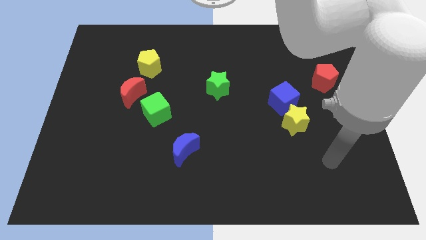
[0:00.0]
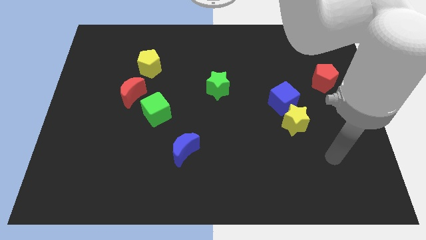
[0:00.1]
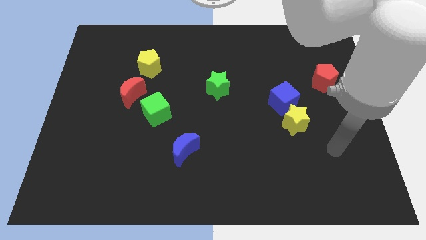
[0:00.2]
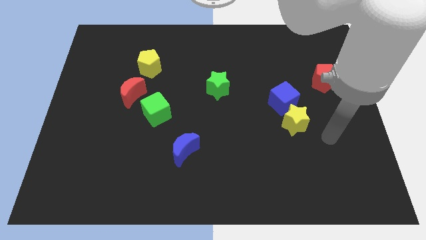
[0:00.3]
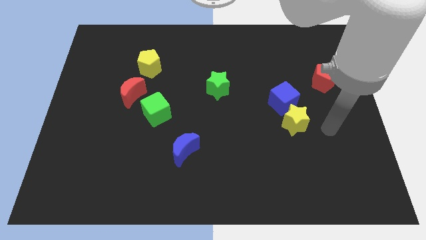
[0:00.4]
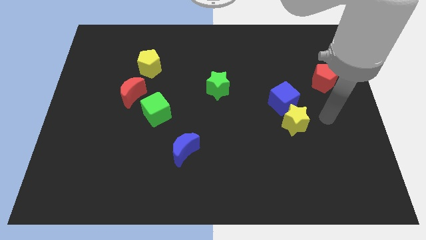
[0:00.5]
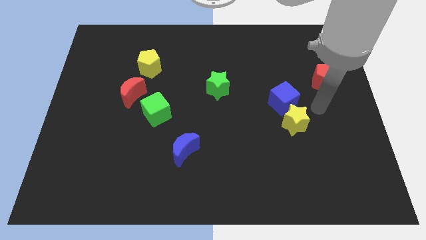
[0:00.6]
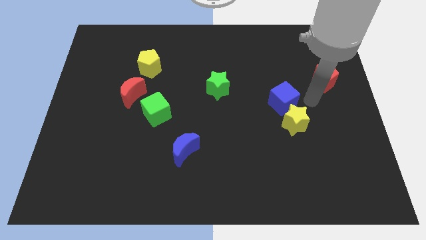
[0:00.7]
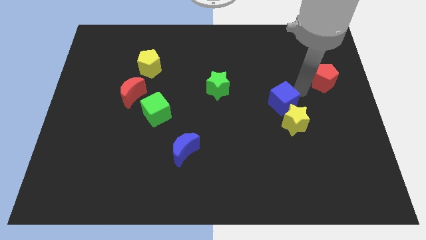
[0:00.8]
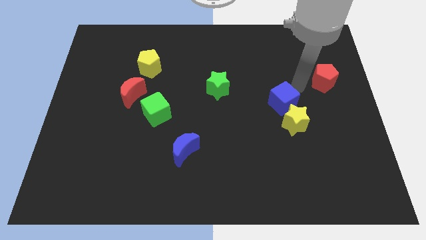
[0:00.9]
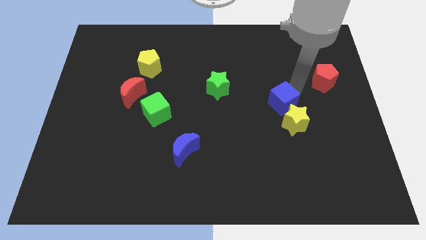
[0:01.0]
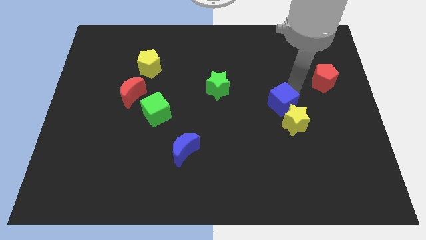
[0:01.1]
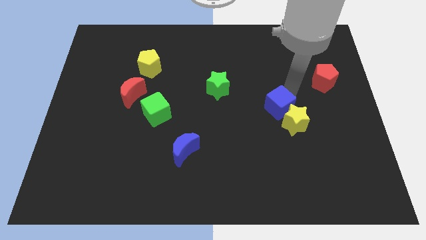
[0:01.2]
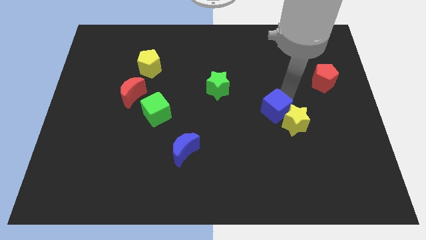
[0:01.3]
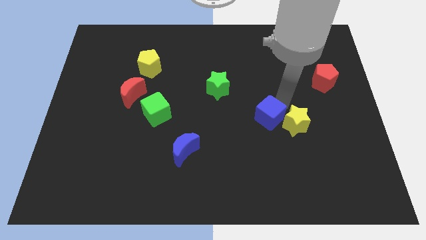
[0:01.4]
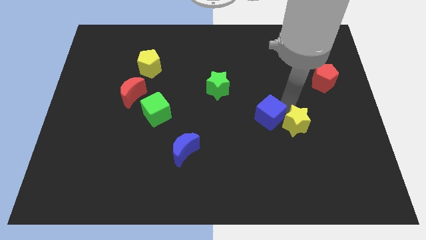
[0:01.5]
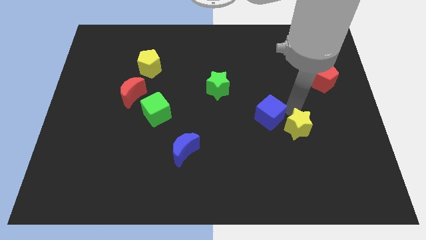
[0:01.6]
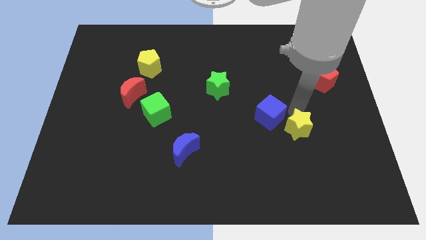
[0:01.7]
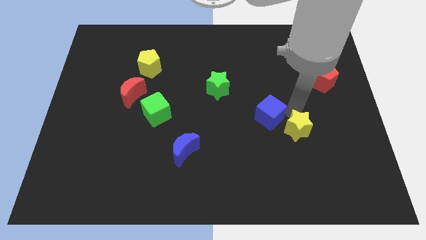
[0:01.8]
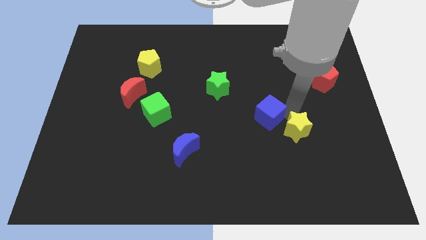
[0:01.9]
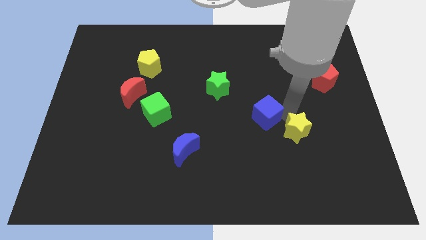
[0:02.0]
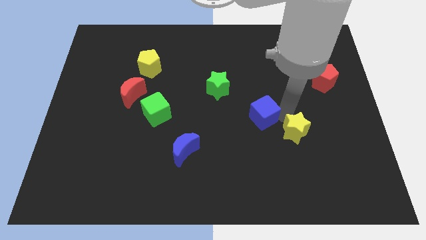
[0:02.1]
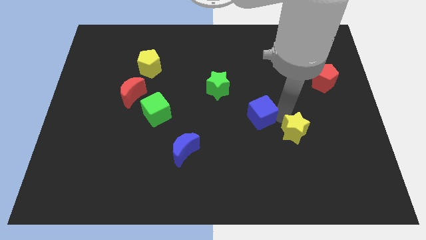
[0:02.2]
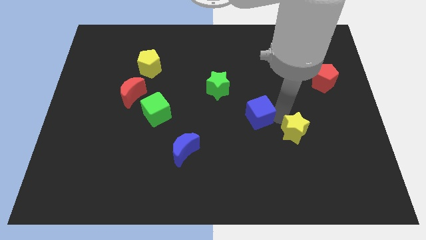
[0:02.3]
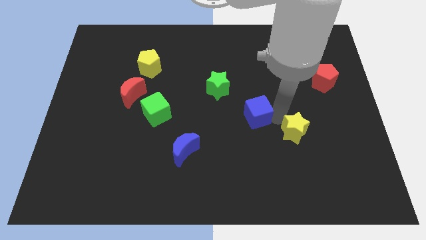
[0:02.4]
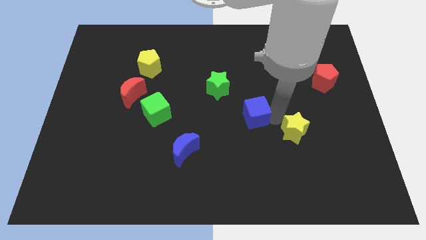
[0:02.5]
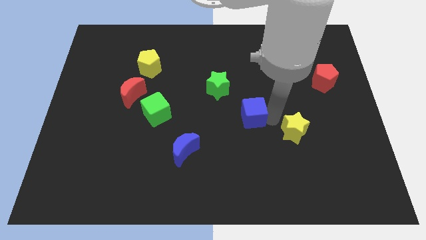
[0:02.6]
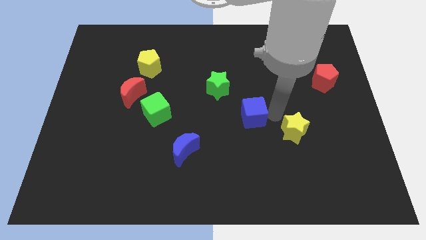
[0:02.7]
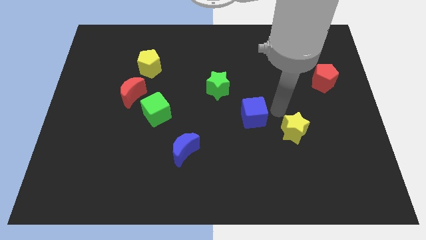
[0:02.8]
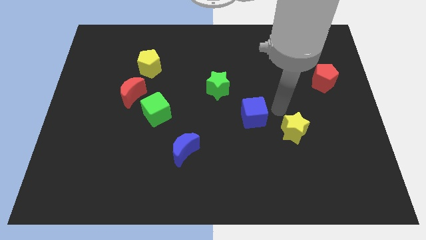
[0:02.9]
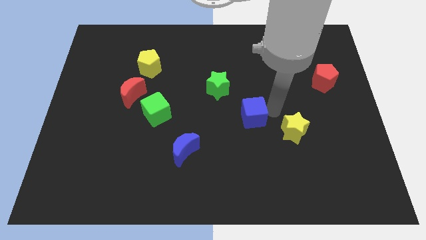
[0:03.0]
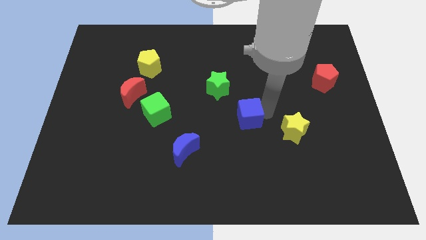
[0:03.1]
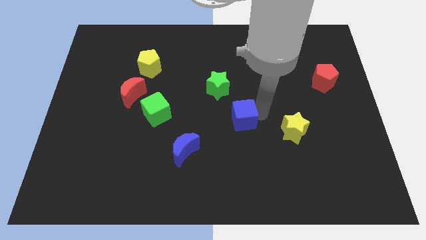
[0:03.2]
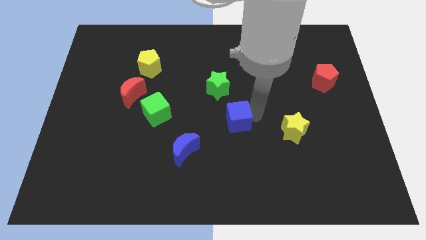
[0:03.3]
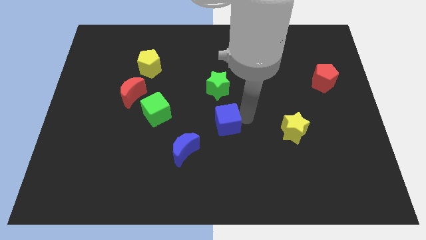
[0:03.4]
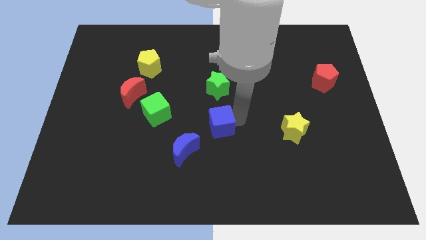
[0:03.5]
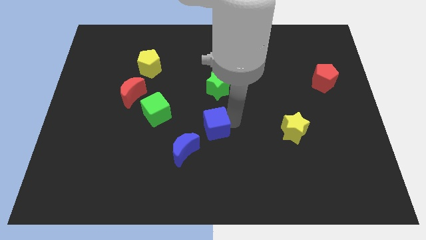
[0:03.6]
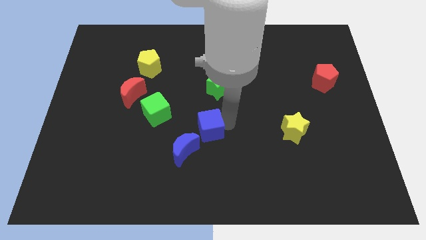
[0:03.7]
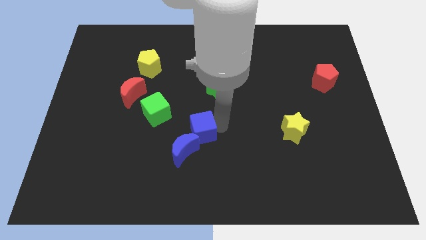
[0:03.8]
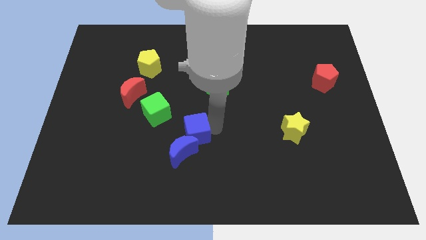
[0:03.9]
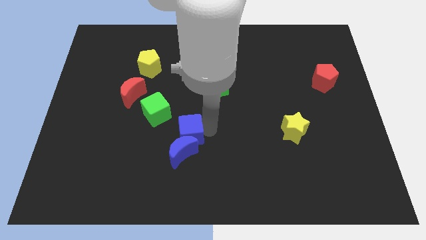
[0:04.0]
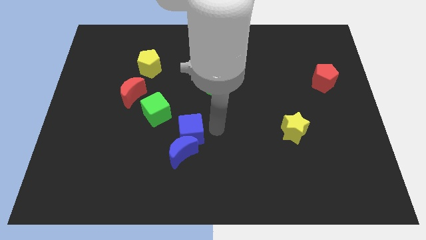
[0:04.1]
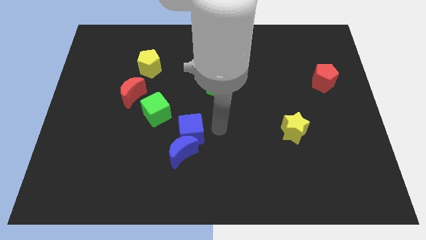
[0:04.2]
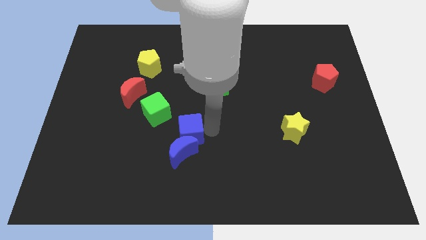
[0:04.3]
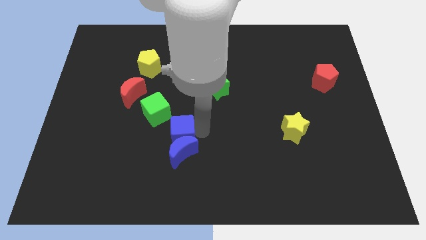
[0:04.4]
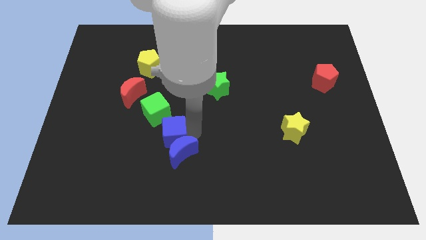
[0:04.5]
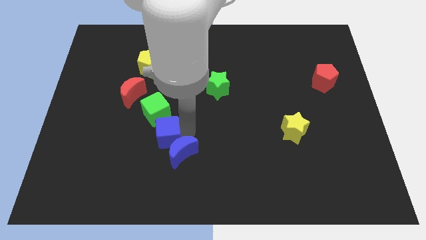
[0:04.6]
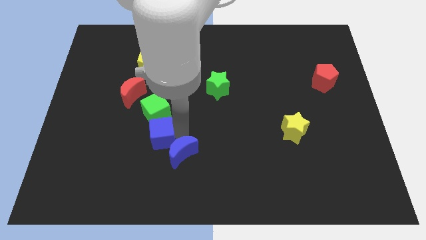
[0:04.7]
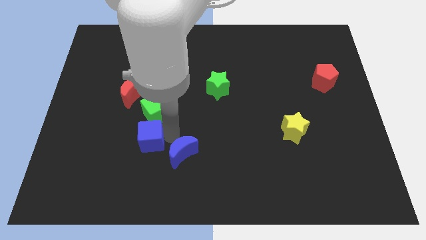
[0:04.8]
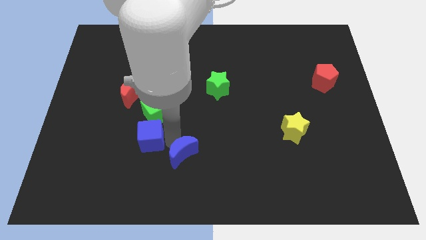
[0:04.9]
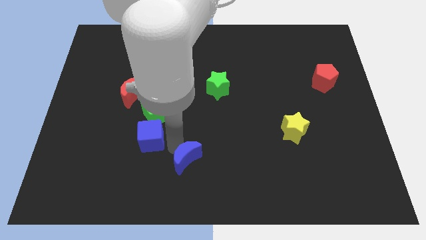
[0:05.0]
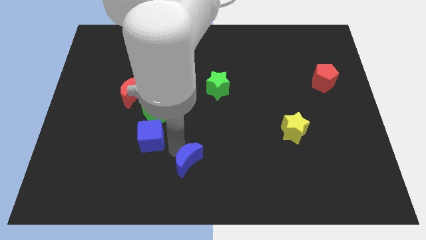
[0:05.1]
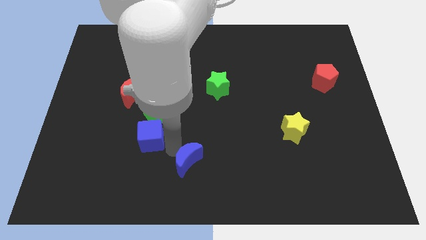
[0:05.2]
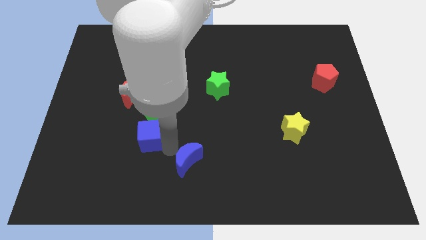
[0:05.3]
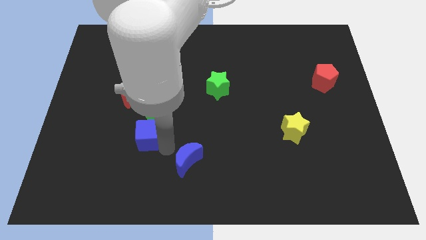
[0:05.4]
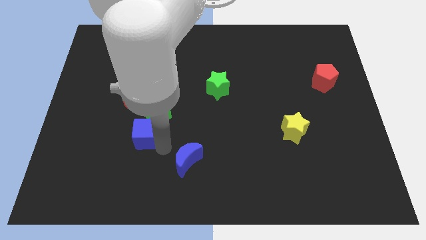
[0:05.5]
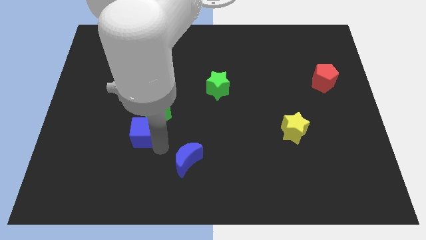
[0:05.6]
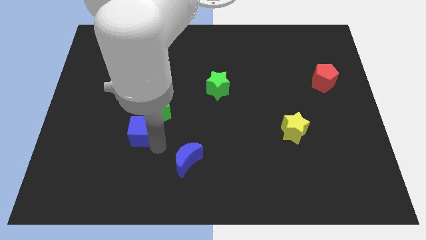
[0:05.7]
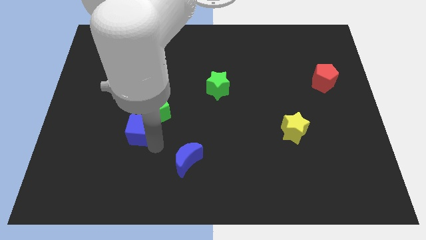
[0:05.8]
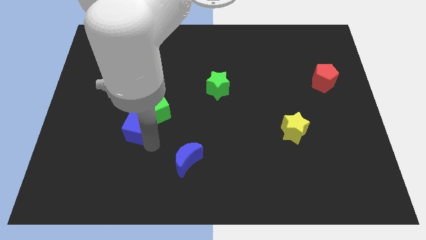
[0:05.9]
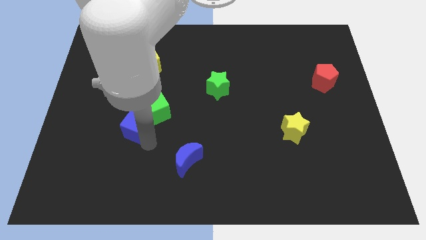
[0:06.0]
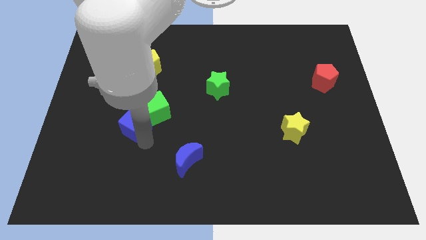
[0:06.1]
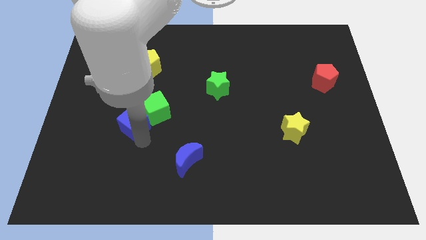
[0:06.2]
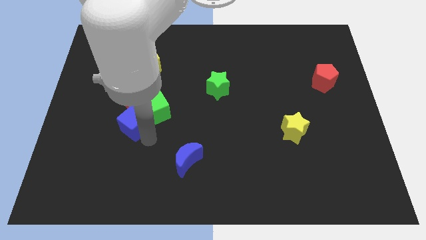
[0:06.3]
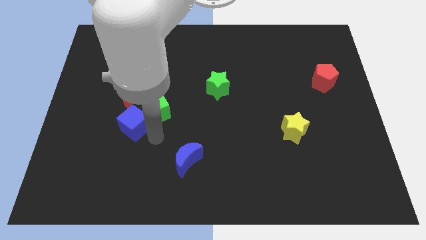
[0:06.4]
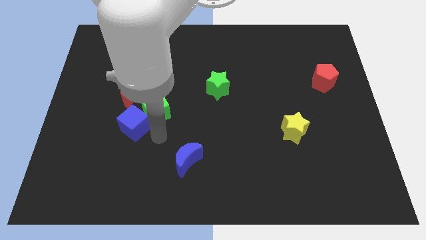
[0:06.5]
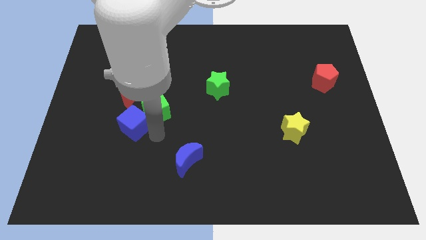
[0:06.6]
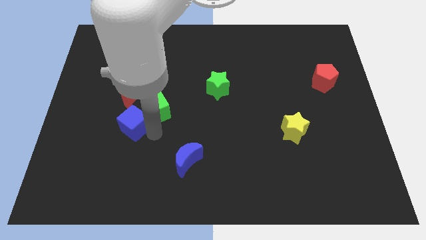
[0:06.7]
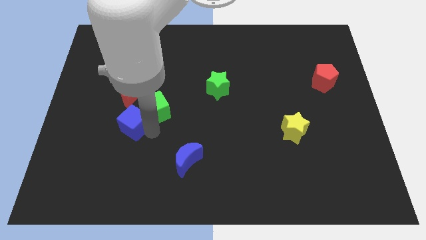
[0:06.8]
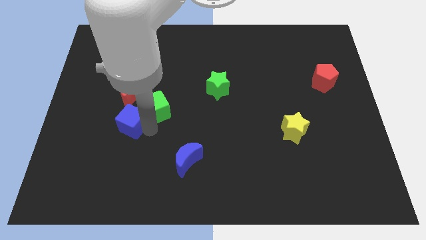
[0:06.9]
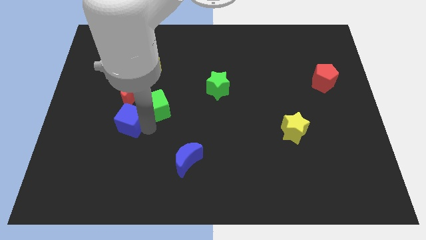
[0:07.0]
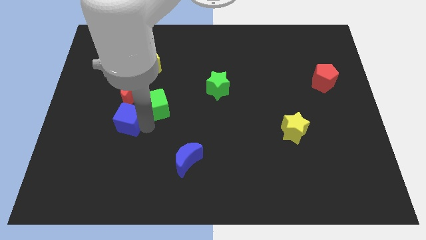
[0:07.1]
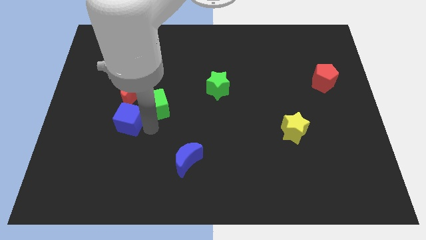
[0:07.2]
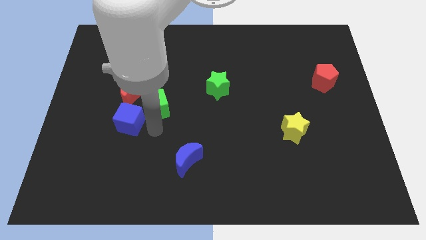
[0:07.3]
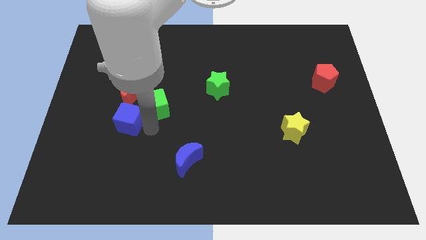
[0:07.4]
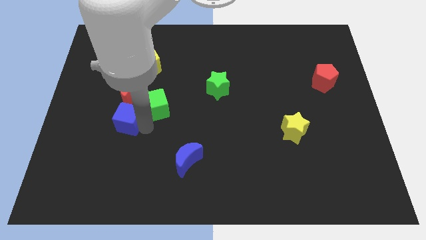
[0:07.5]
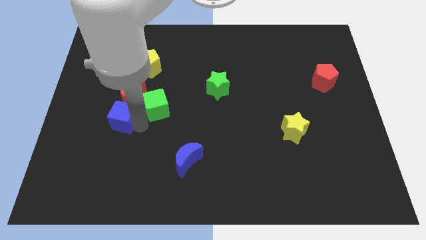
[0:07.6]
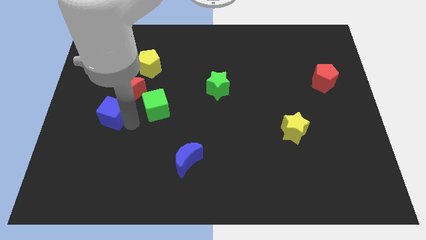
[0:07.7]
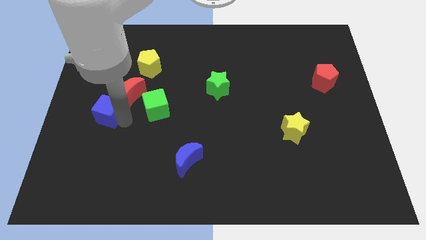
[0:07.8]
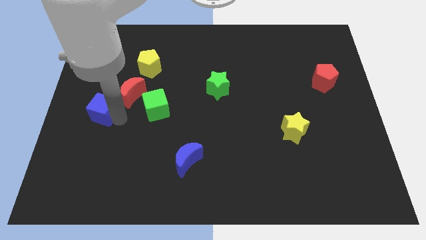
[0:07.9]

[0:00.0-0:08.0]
move the blue cube to the center left
